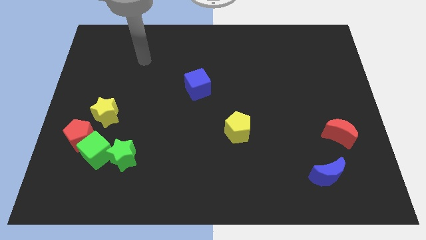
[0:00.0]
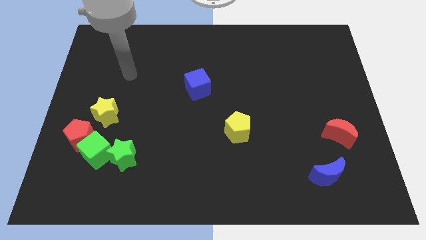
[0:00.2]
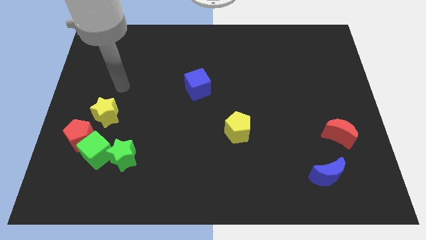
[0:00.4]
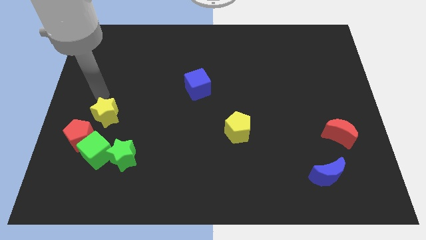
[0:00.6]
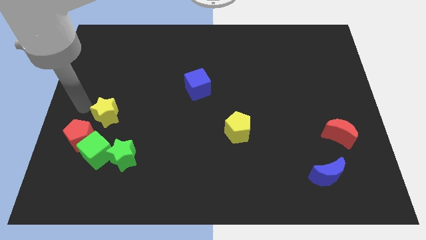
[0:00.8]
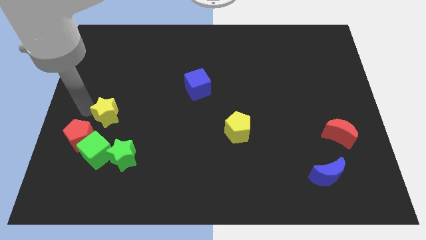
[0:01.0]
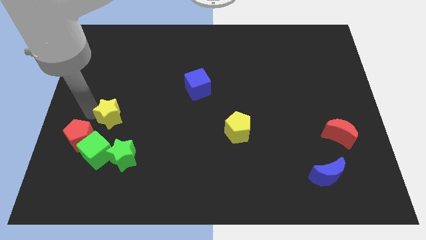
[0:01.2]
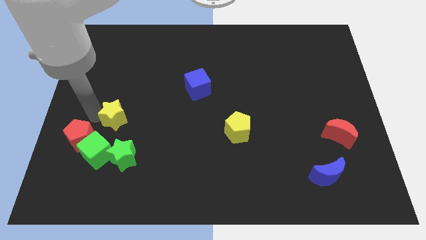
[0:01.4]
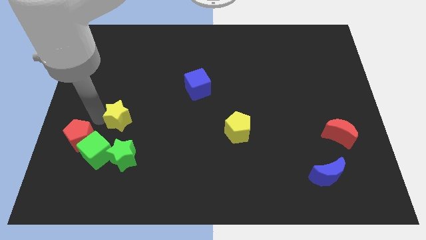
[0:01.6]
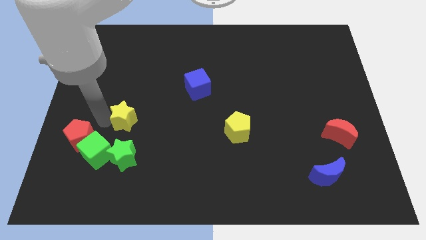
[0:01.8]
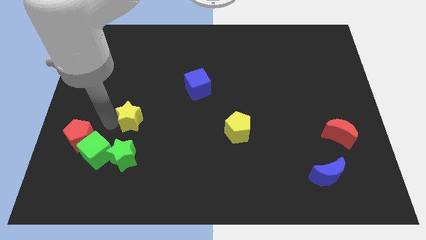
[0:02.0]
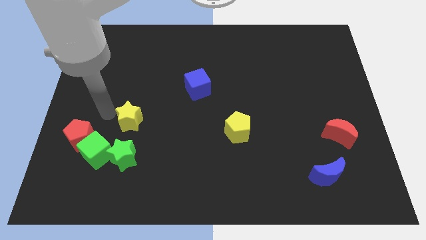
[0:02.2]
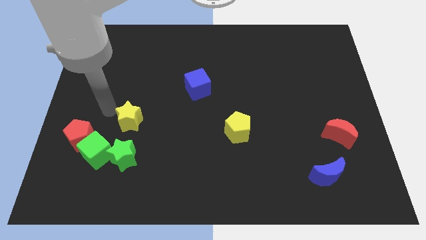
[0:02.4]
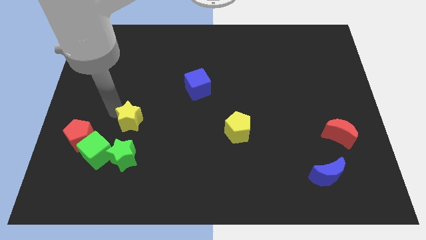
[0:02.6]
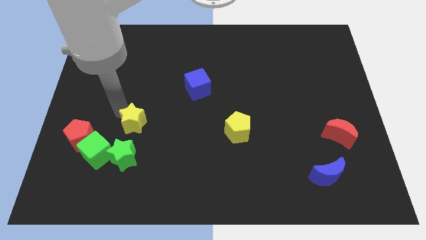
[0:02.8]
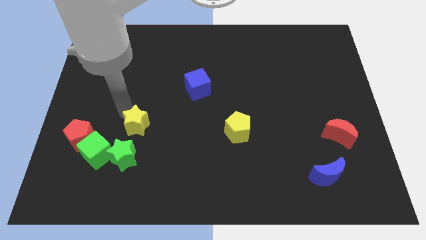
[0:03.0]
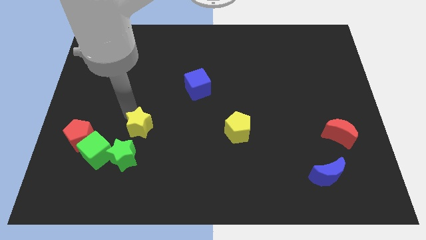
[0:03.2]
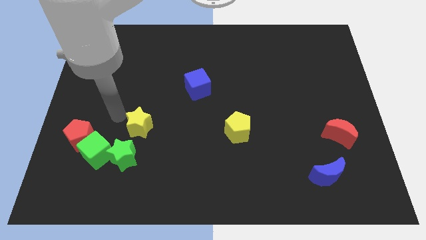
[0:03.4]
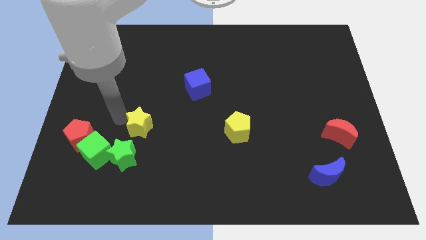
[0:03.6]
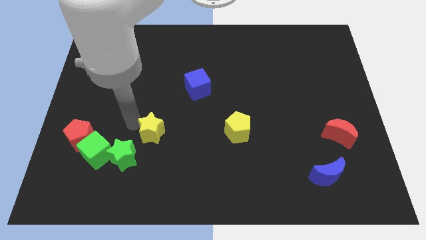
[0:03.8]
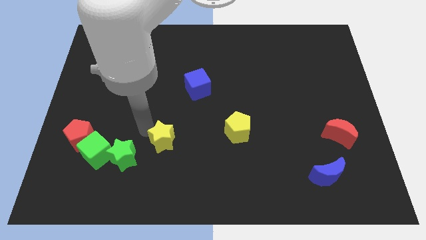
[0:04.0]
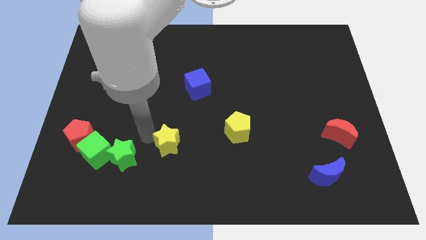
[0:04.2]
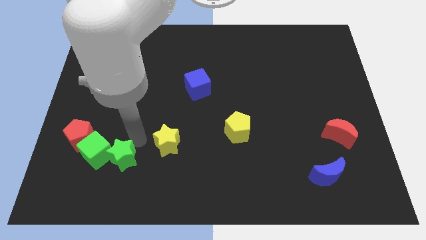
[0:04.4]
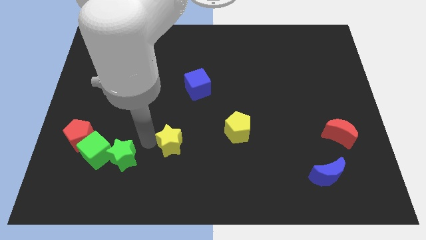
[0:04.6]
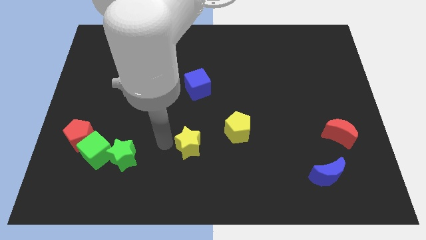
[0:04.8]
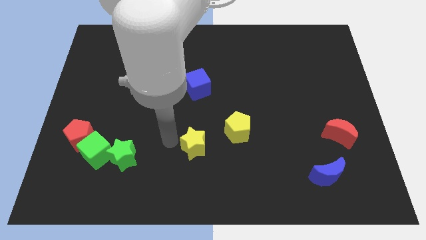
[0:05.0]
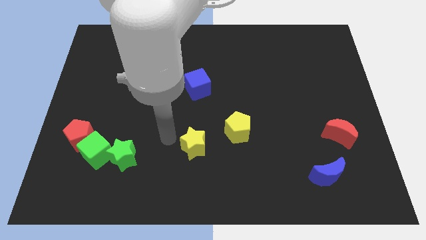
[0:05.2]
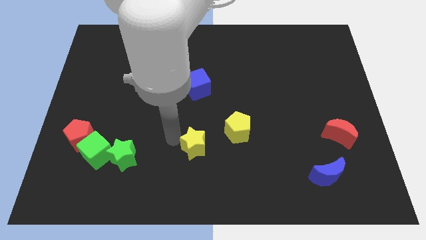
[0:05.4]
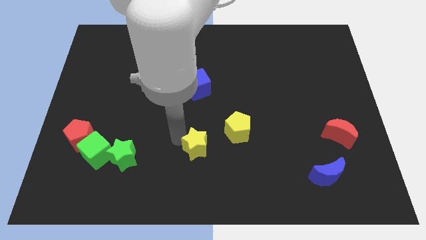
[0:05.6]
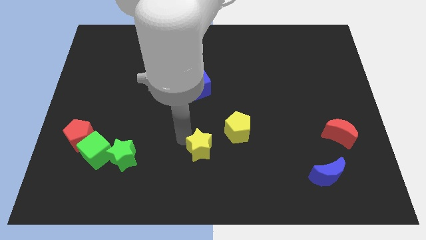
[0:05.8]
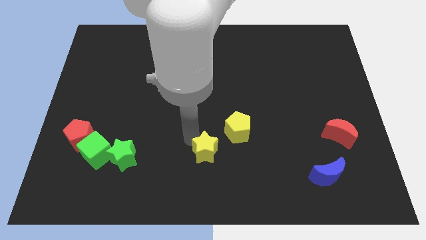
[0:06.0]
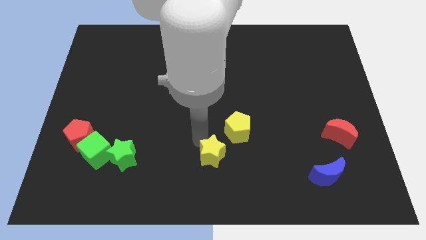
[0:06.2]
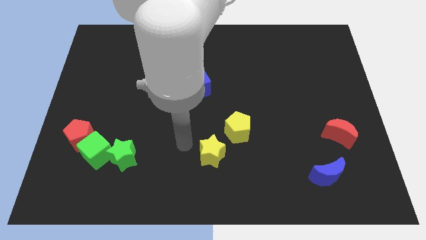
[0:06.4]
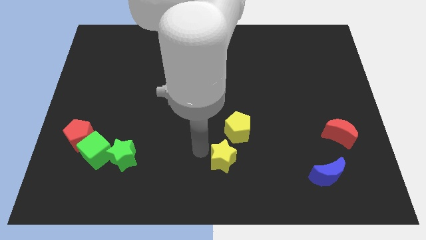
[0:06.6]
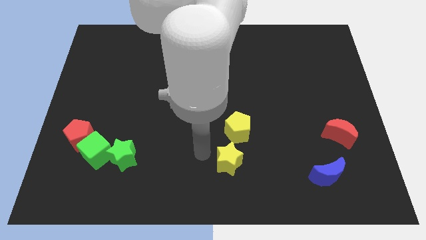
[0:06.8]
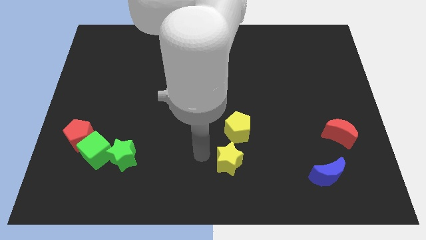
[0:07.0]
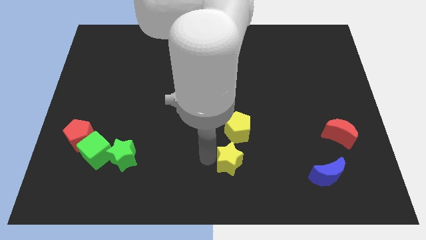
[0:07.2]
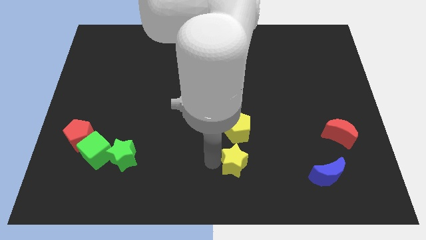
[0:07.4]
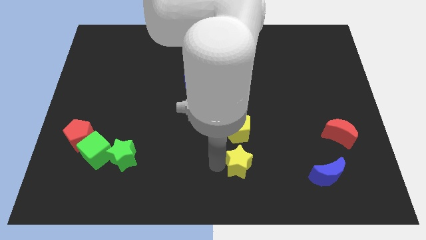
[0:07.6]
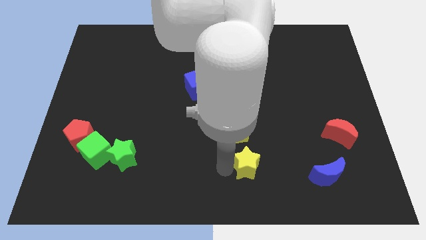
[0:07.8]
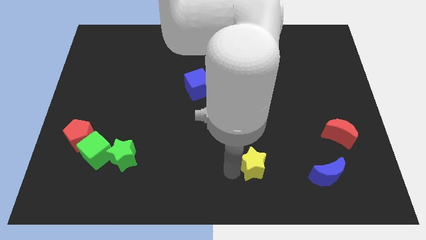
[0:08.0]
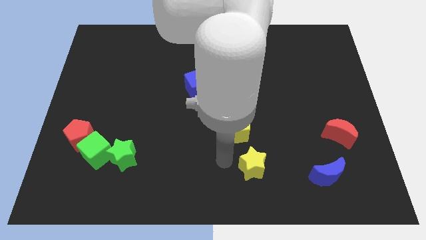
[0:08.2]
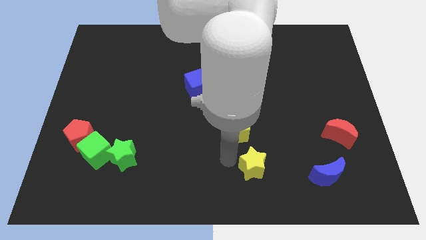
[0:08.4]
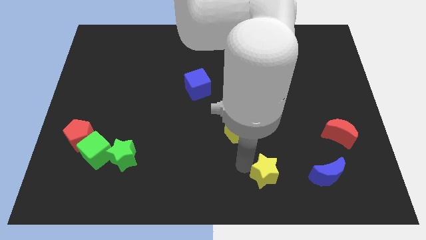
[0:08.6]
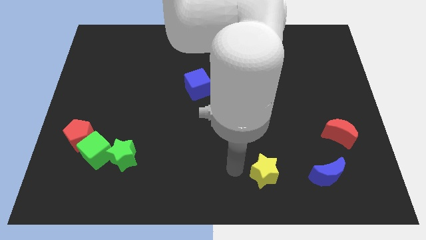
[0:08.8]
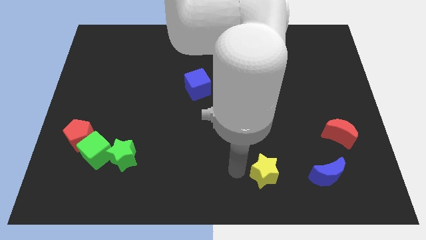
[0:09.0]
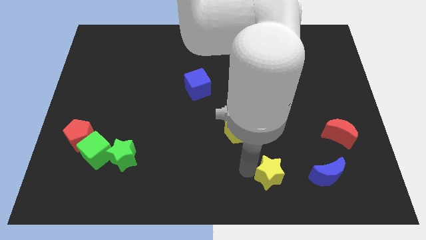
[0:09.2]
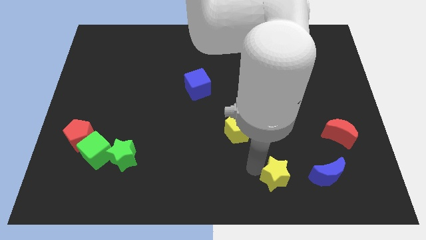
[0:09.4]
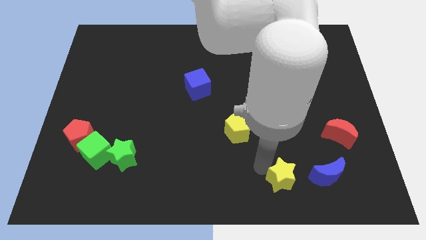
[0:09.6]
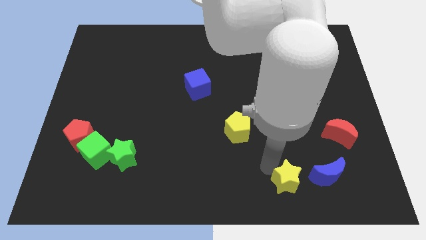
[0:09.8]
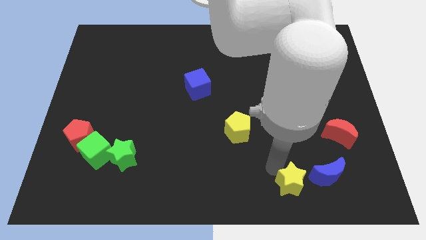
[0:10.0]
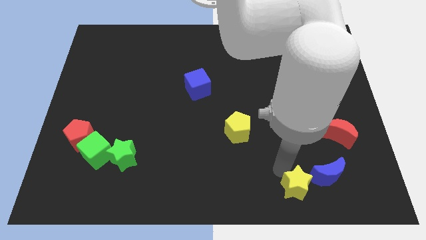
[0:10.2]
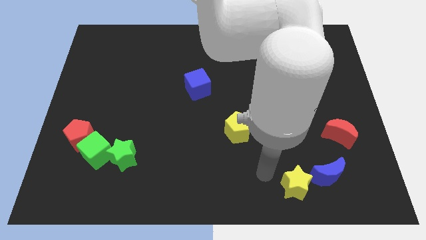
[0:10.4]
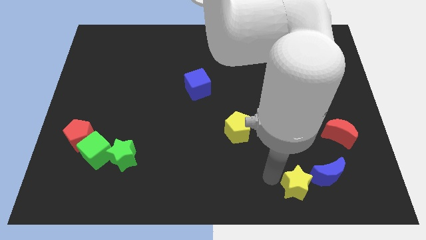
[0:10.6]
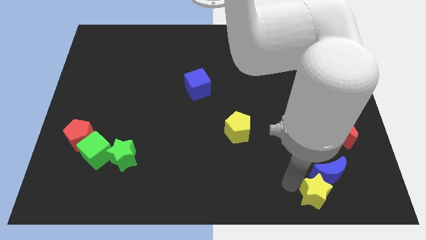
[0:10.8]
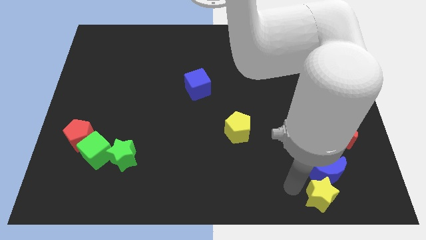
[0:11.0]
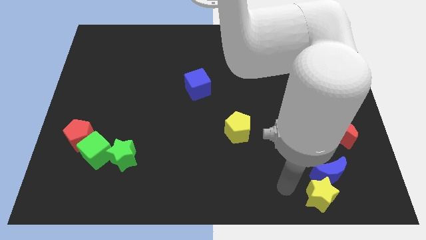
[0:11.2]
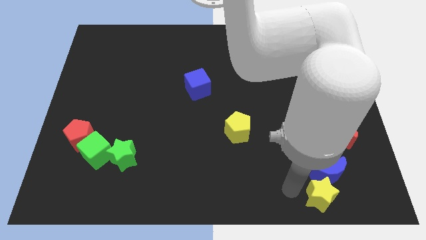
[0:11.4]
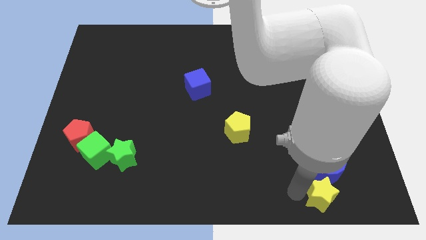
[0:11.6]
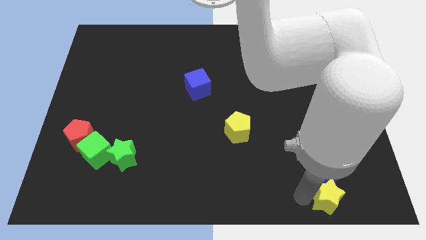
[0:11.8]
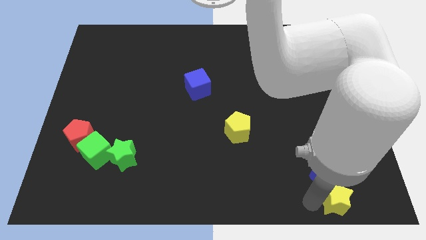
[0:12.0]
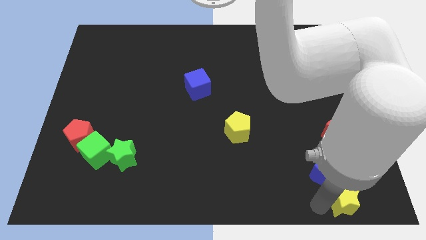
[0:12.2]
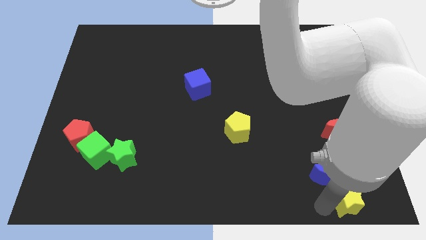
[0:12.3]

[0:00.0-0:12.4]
put the yellow star to the bottom right of the board
